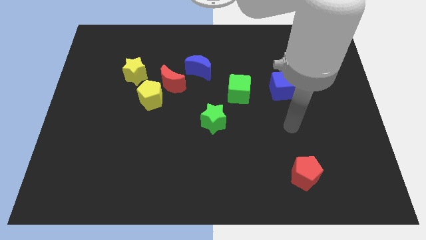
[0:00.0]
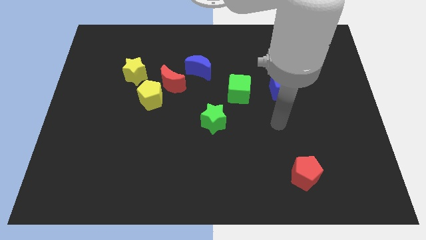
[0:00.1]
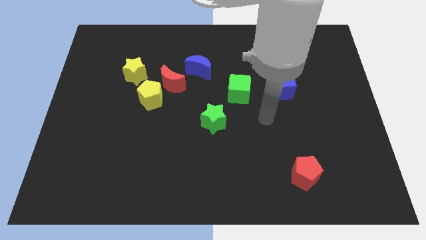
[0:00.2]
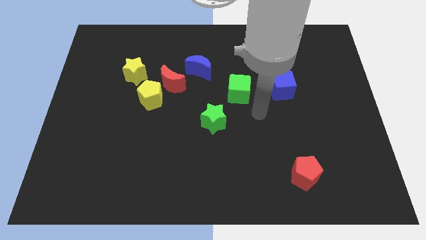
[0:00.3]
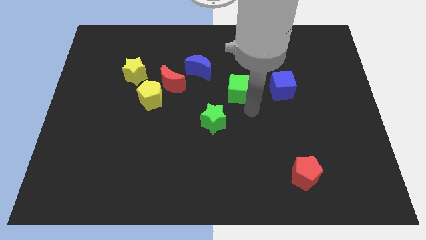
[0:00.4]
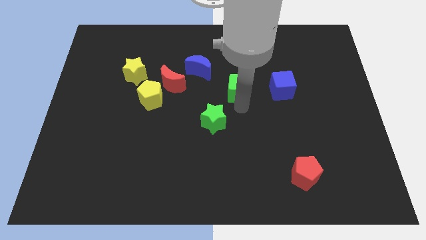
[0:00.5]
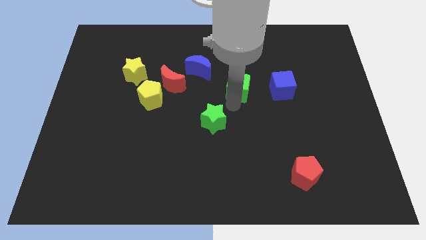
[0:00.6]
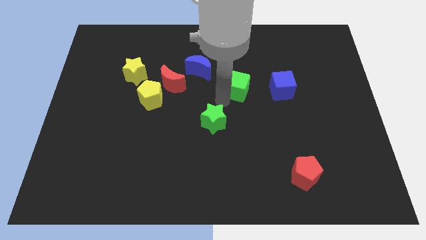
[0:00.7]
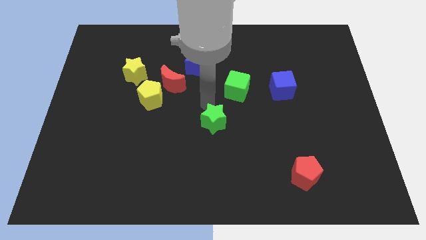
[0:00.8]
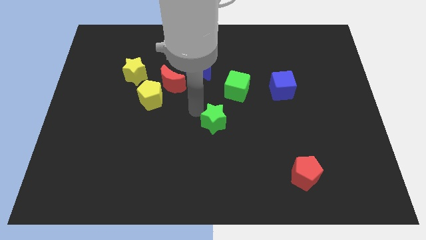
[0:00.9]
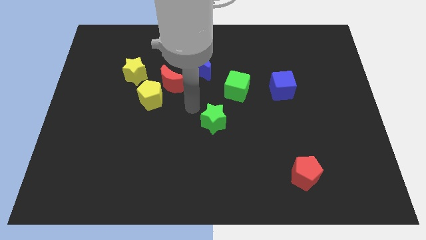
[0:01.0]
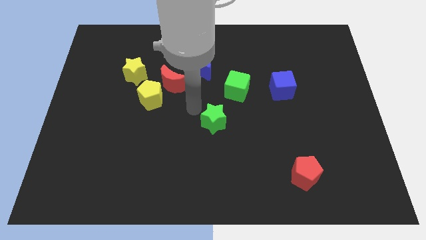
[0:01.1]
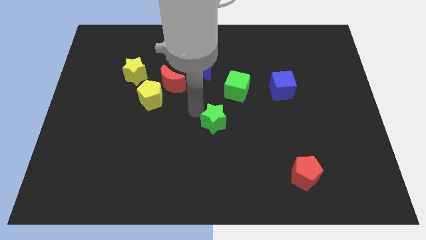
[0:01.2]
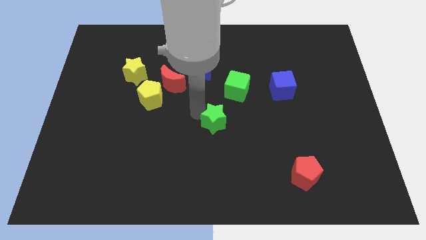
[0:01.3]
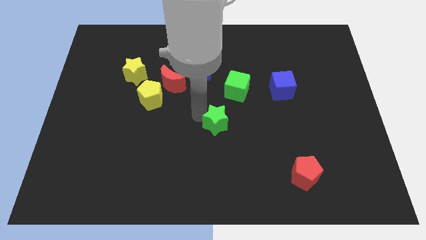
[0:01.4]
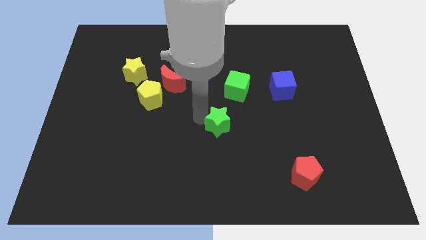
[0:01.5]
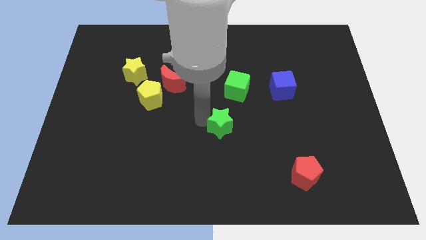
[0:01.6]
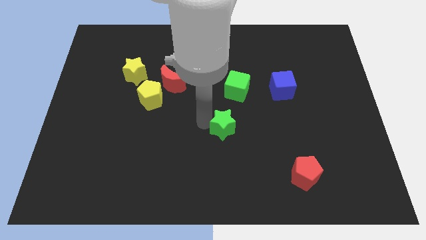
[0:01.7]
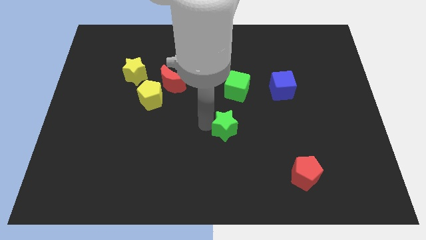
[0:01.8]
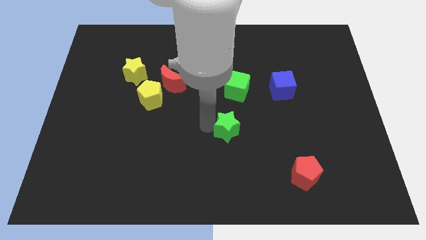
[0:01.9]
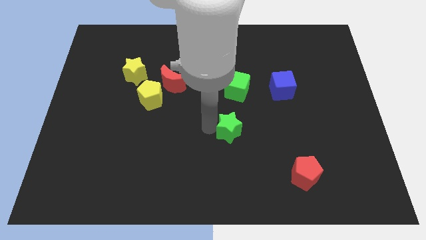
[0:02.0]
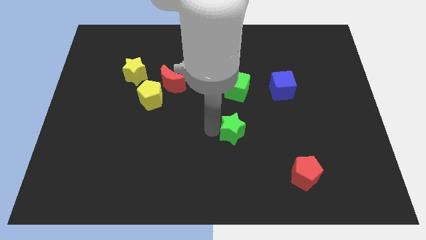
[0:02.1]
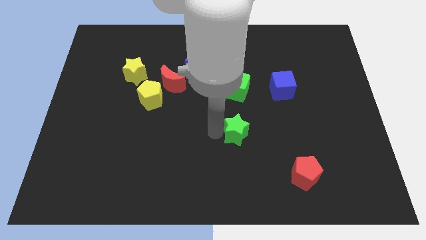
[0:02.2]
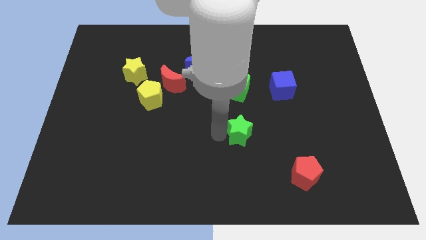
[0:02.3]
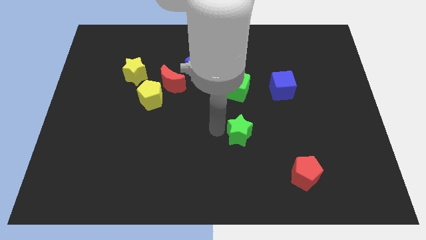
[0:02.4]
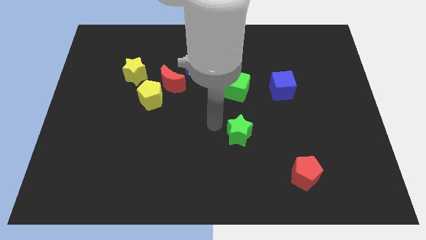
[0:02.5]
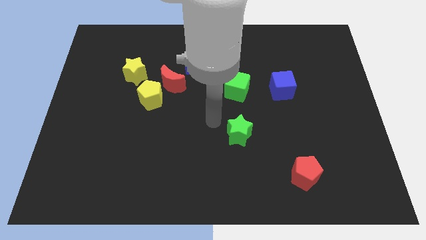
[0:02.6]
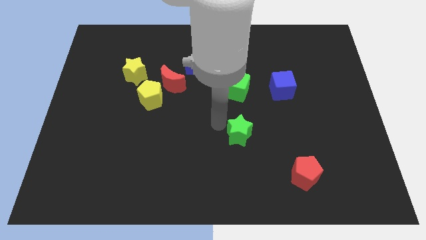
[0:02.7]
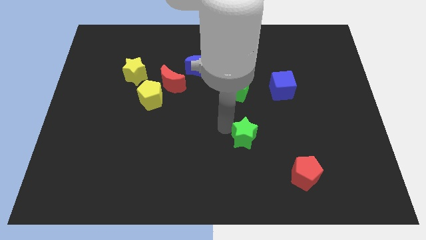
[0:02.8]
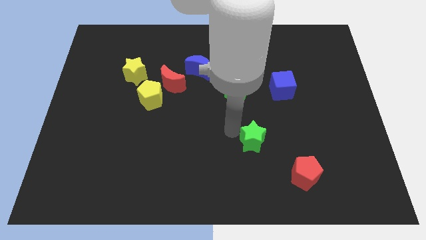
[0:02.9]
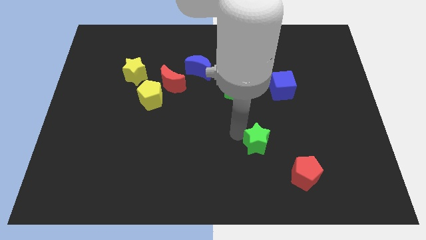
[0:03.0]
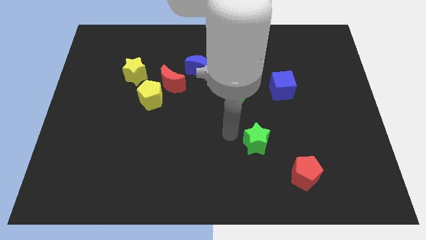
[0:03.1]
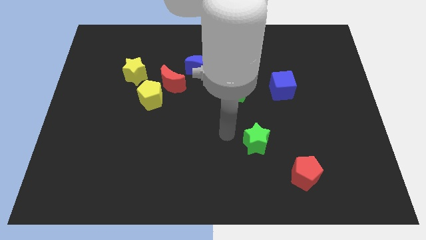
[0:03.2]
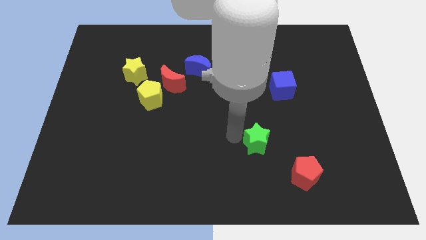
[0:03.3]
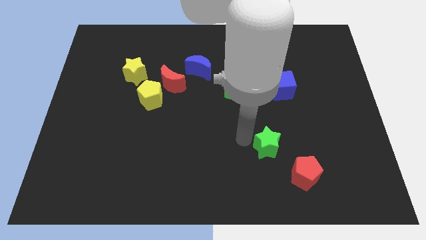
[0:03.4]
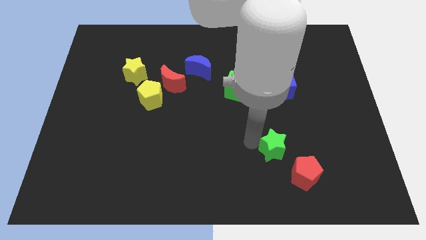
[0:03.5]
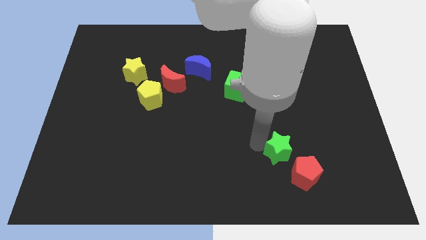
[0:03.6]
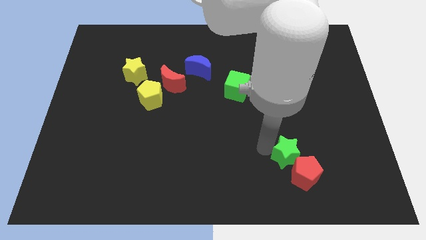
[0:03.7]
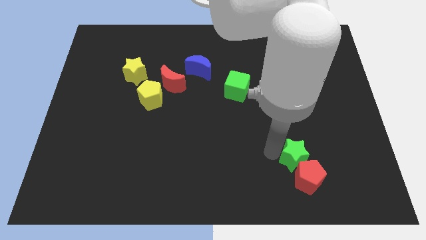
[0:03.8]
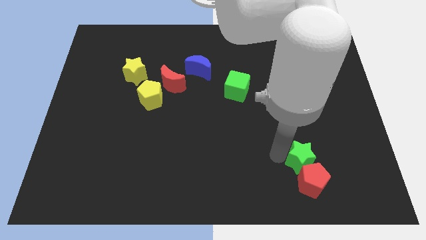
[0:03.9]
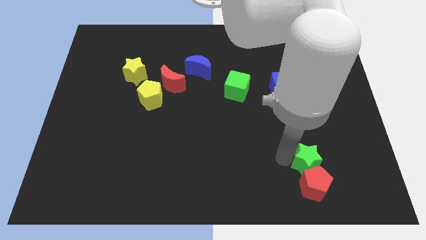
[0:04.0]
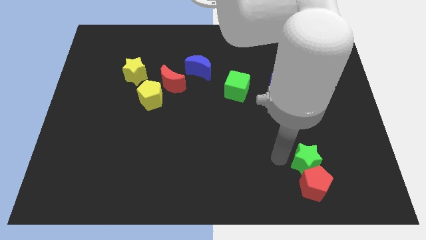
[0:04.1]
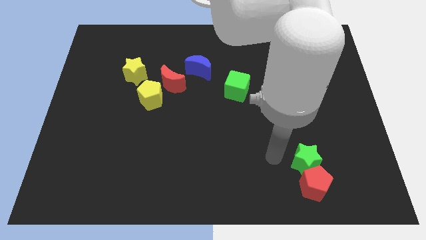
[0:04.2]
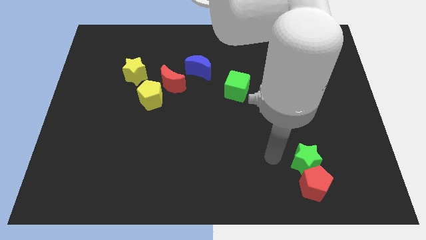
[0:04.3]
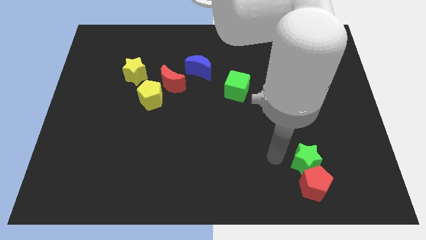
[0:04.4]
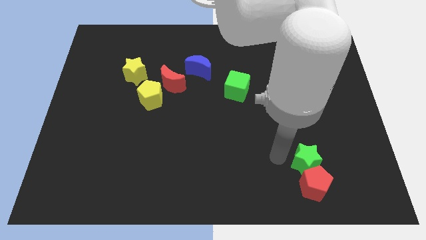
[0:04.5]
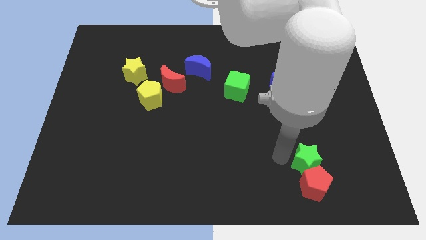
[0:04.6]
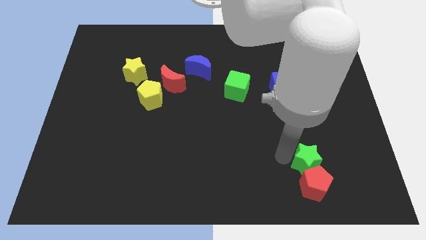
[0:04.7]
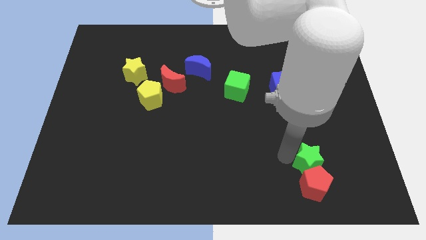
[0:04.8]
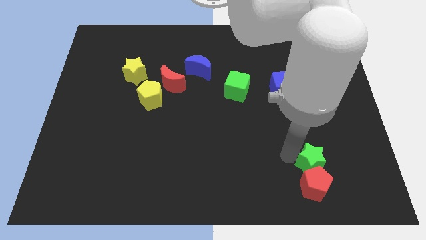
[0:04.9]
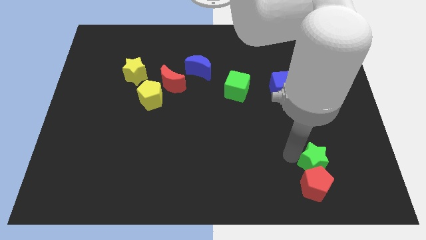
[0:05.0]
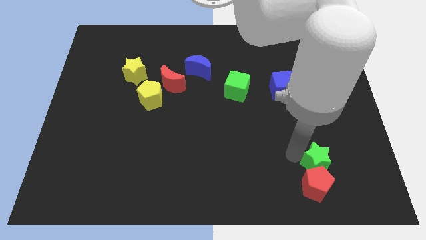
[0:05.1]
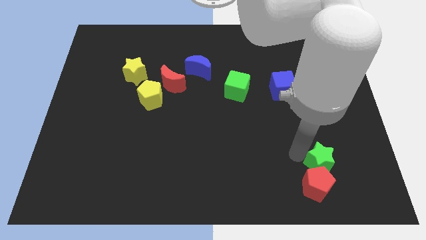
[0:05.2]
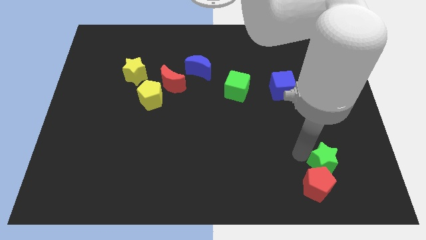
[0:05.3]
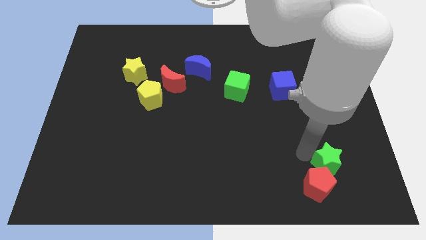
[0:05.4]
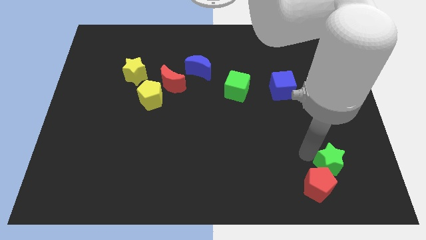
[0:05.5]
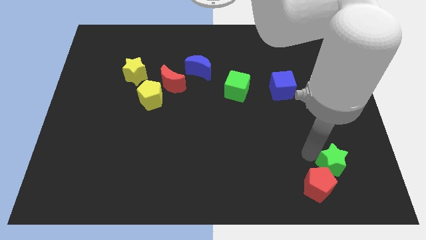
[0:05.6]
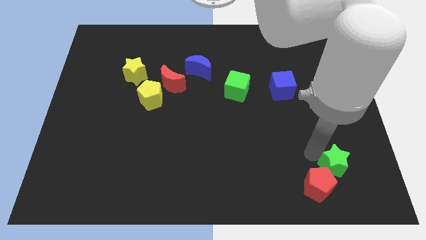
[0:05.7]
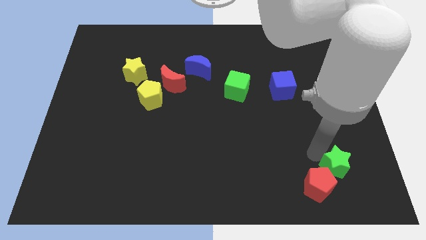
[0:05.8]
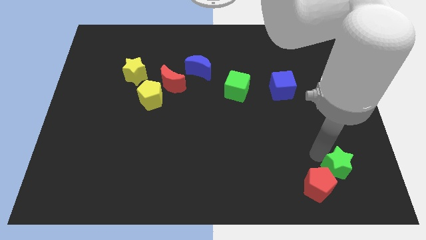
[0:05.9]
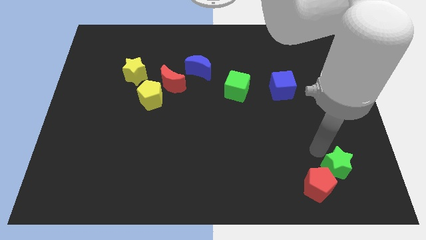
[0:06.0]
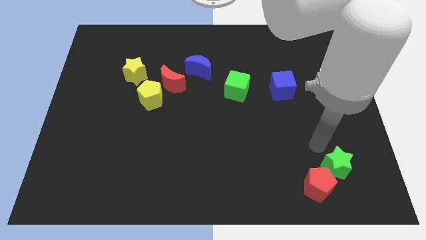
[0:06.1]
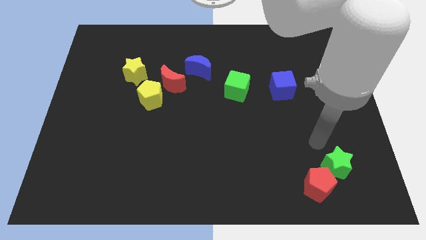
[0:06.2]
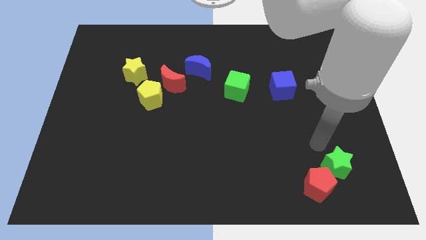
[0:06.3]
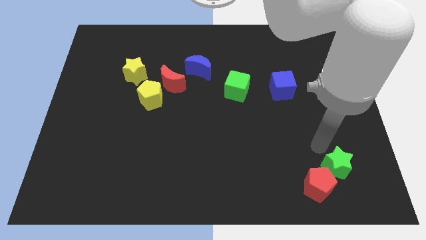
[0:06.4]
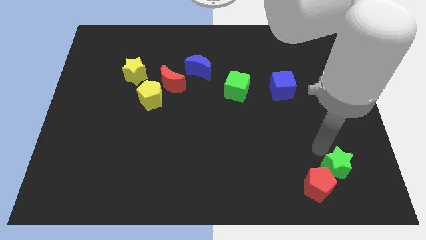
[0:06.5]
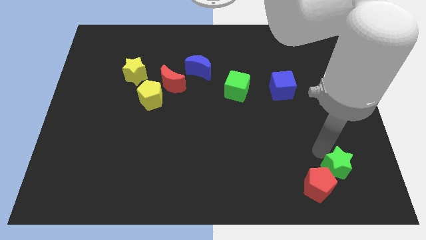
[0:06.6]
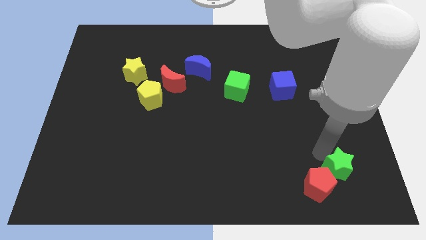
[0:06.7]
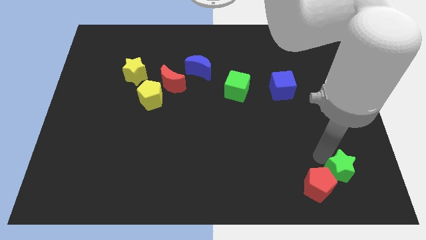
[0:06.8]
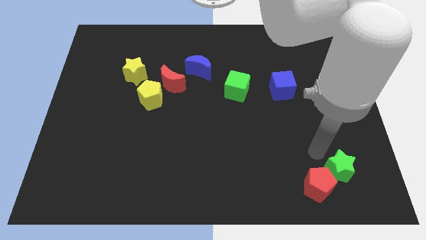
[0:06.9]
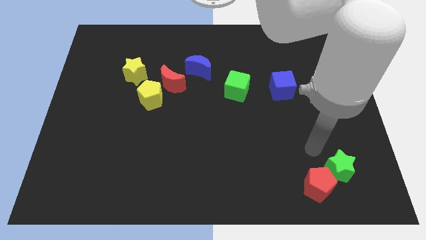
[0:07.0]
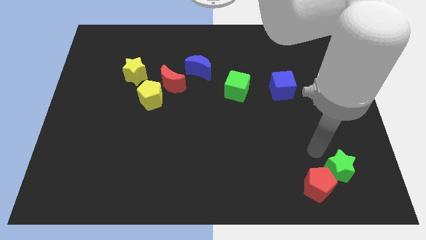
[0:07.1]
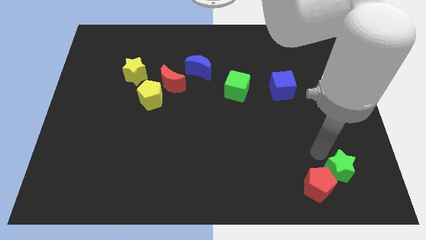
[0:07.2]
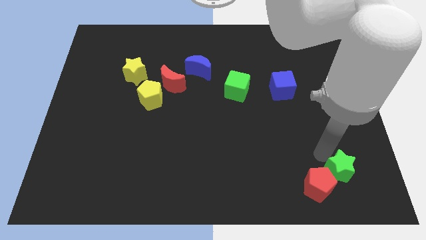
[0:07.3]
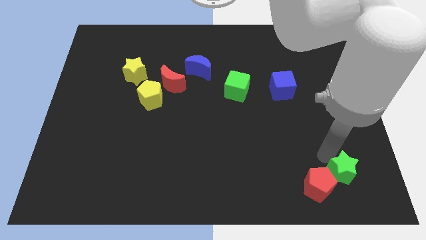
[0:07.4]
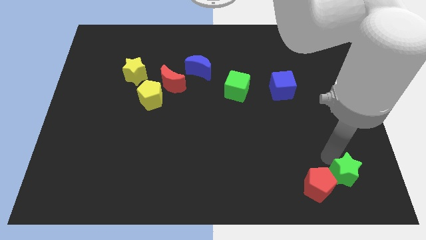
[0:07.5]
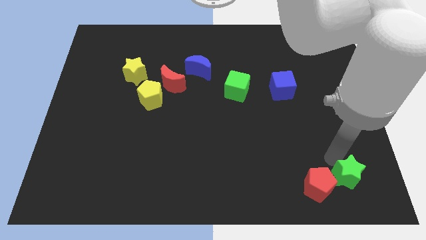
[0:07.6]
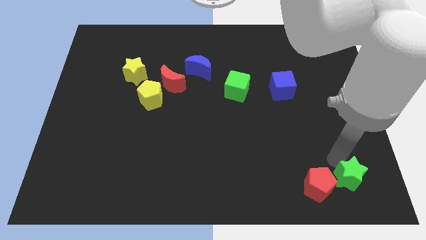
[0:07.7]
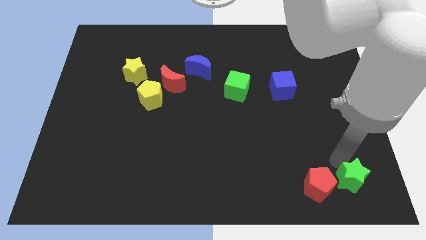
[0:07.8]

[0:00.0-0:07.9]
put the green star to the bottom right corner
